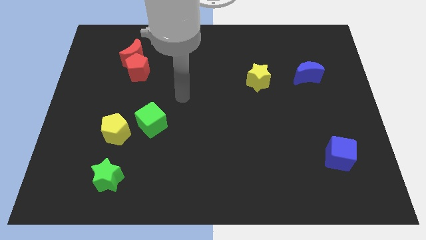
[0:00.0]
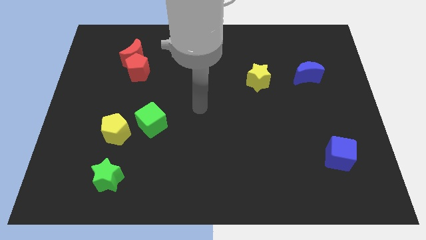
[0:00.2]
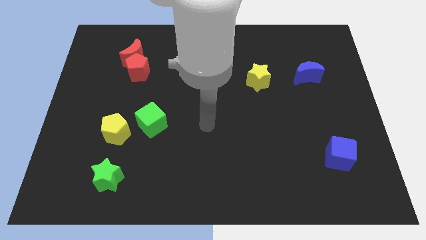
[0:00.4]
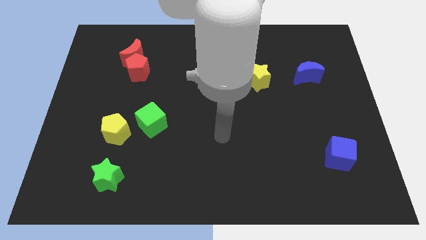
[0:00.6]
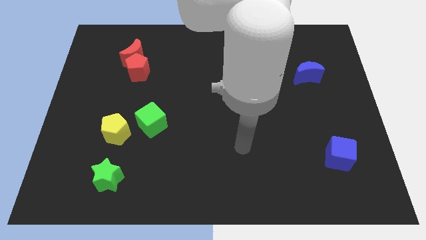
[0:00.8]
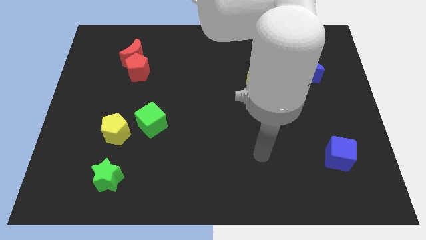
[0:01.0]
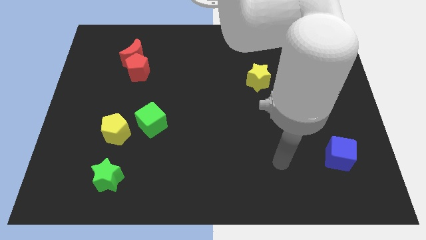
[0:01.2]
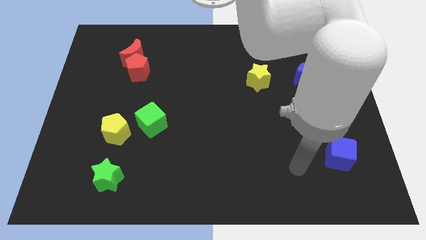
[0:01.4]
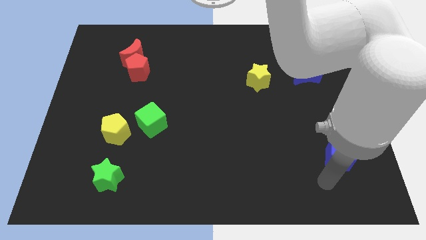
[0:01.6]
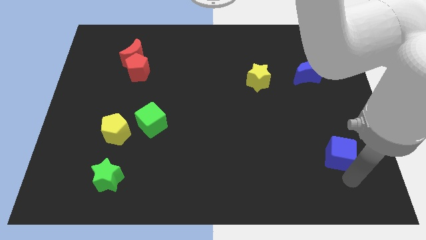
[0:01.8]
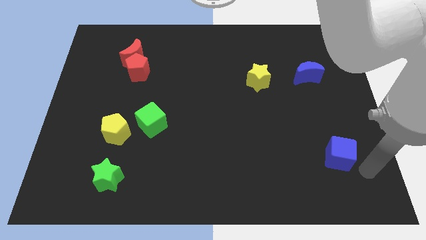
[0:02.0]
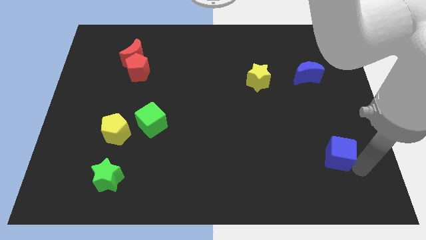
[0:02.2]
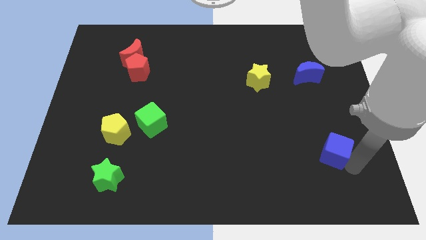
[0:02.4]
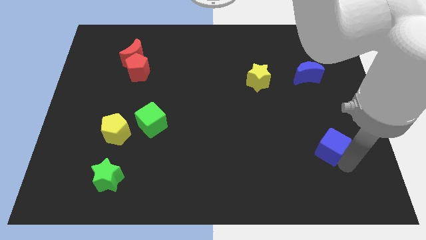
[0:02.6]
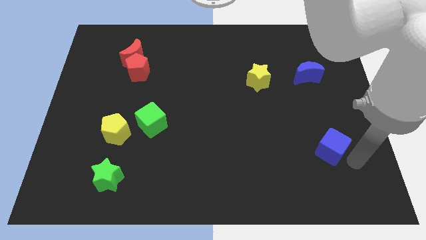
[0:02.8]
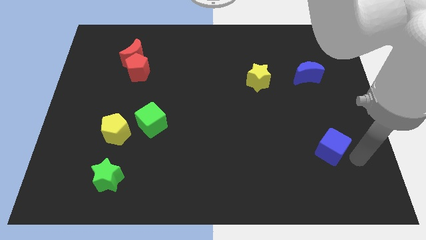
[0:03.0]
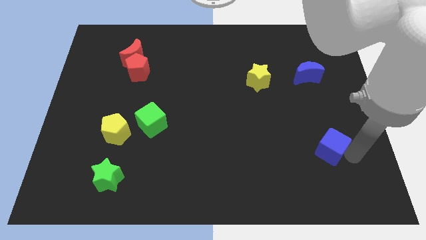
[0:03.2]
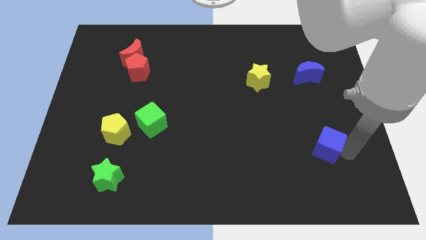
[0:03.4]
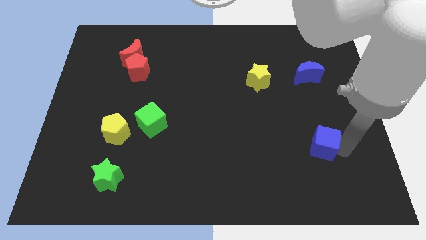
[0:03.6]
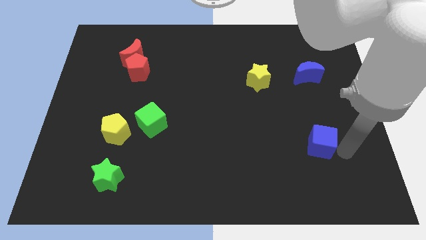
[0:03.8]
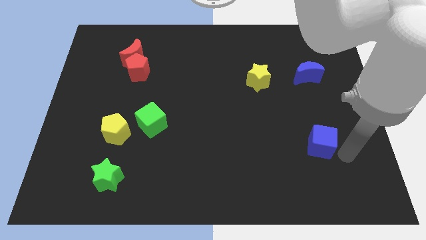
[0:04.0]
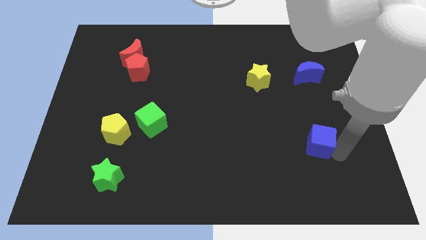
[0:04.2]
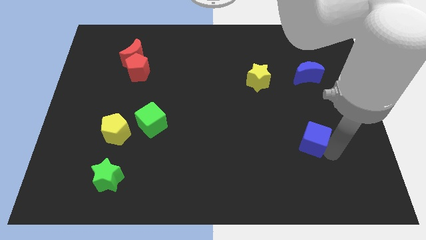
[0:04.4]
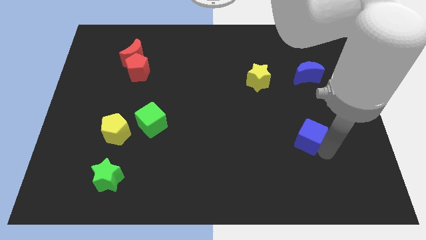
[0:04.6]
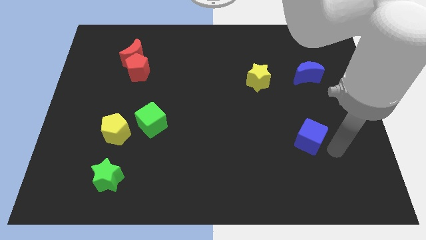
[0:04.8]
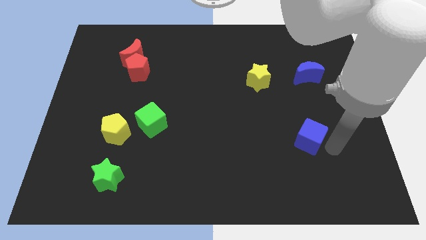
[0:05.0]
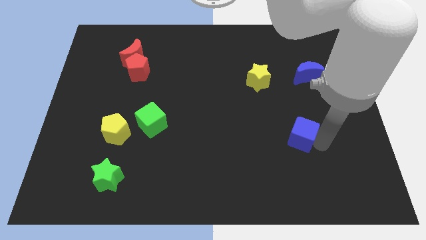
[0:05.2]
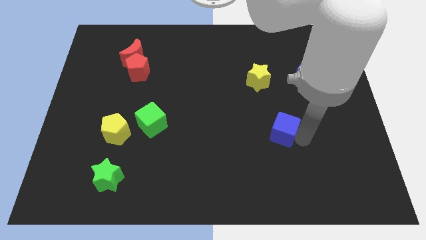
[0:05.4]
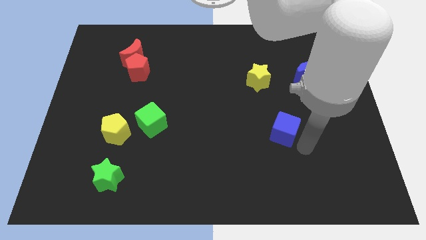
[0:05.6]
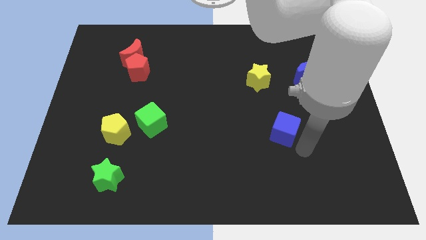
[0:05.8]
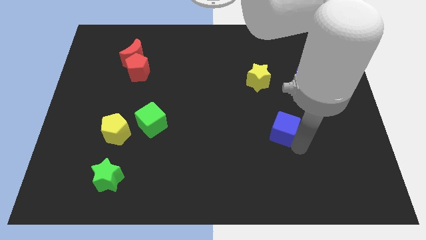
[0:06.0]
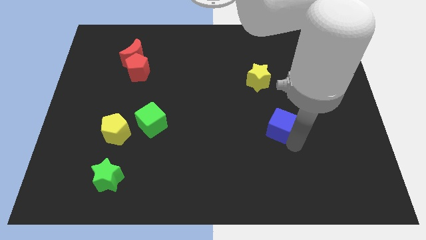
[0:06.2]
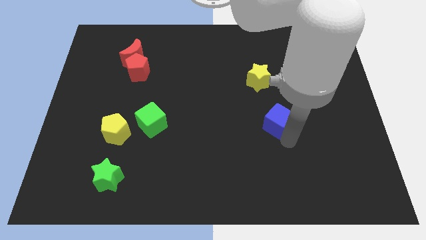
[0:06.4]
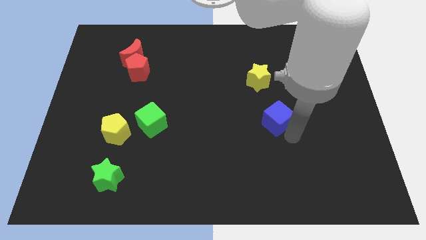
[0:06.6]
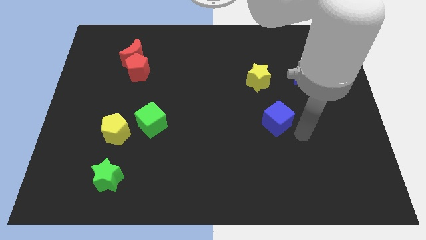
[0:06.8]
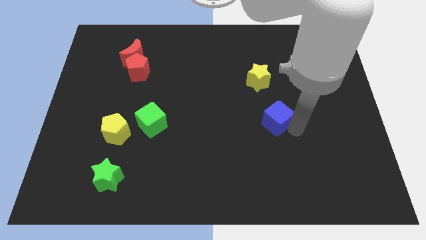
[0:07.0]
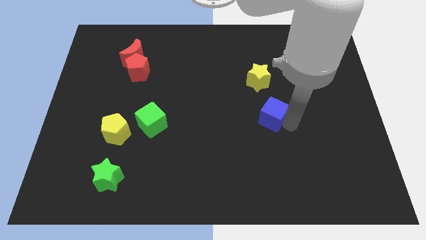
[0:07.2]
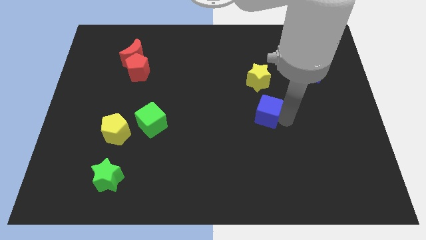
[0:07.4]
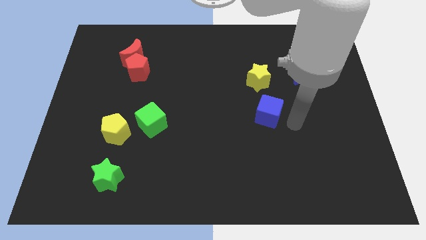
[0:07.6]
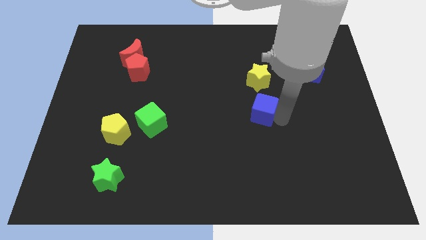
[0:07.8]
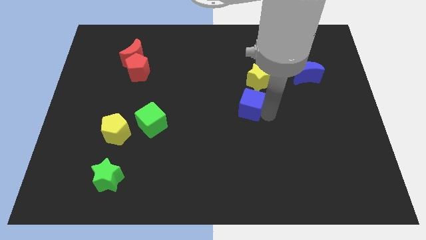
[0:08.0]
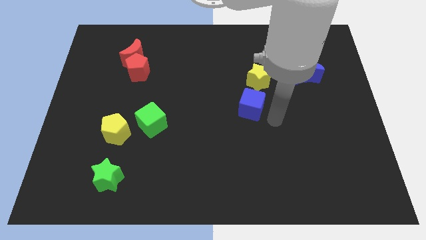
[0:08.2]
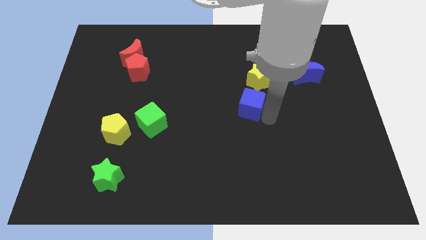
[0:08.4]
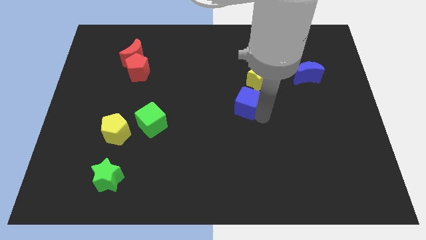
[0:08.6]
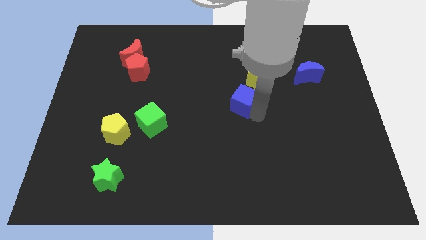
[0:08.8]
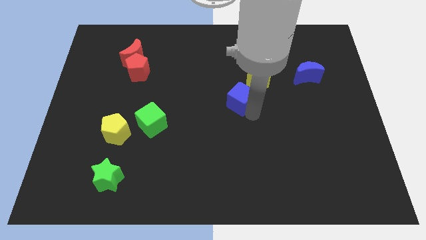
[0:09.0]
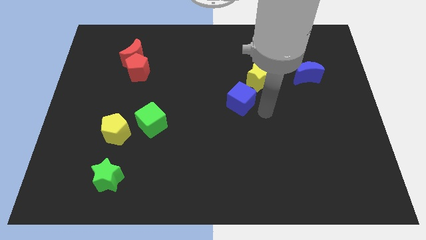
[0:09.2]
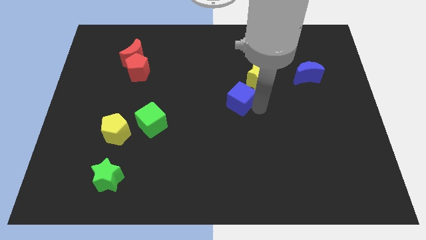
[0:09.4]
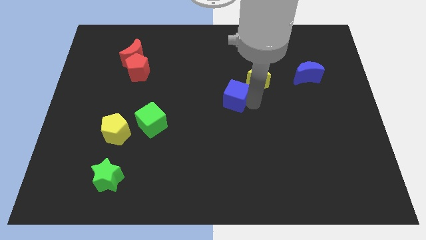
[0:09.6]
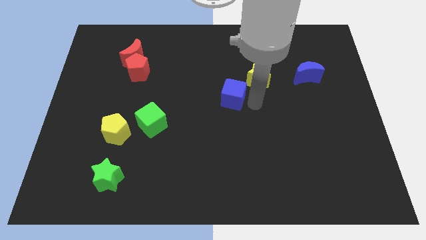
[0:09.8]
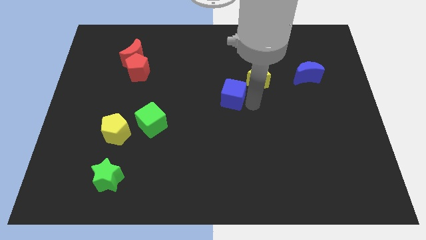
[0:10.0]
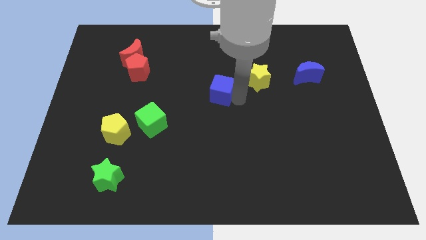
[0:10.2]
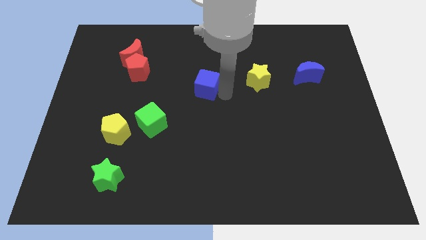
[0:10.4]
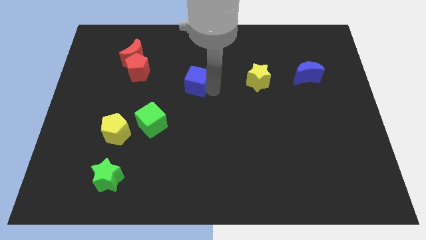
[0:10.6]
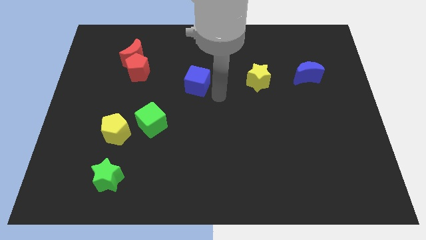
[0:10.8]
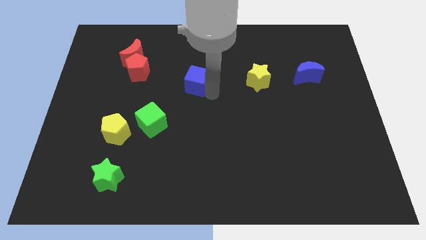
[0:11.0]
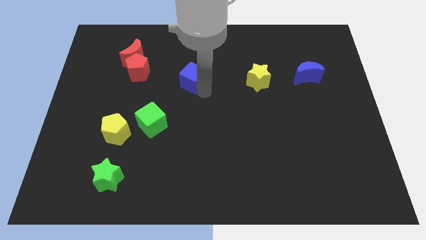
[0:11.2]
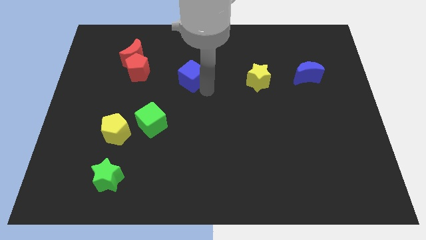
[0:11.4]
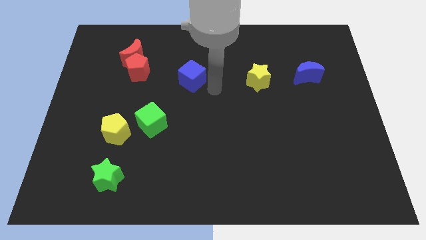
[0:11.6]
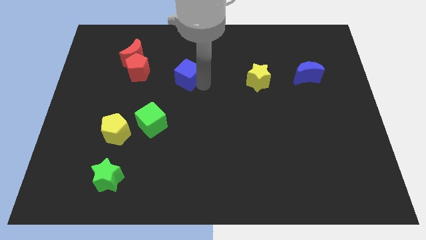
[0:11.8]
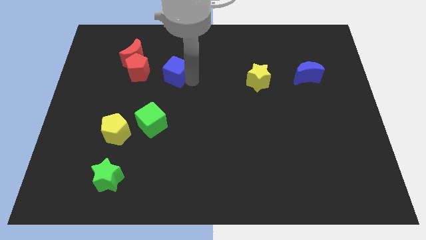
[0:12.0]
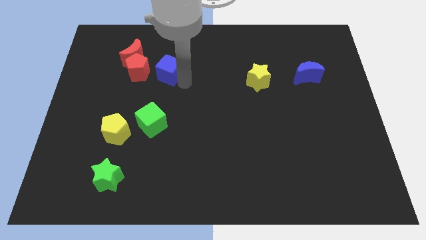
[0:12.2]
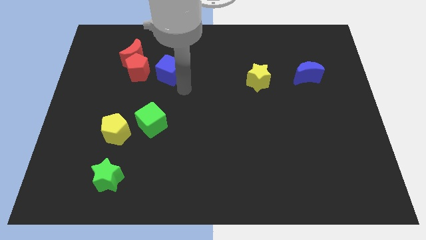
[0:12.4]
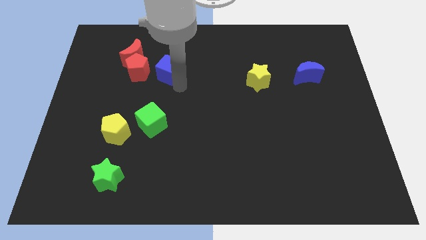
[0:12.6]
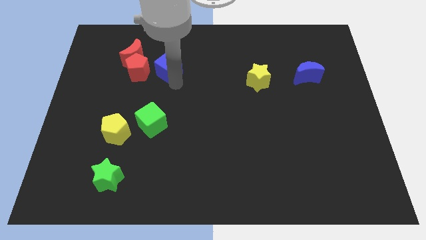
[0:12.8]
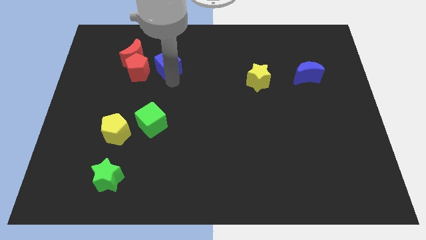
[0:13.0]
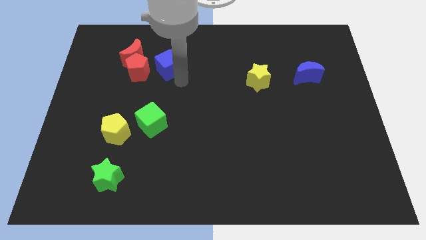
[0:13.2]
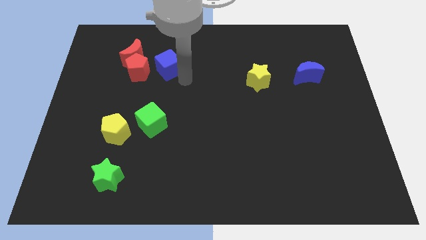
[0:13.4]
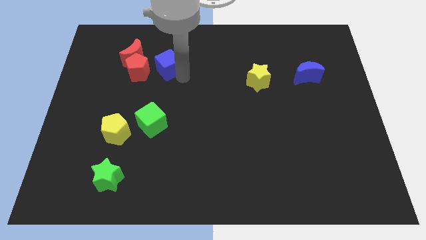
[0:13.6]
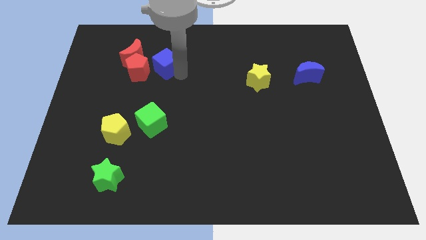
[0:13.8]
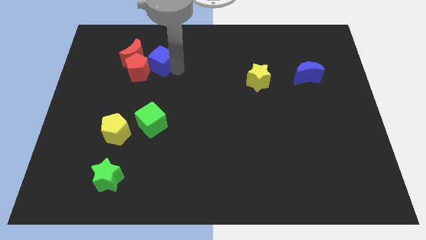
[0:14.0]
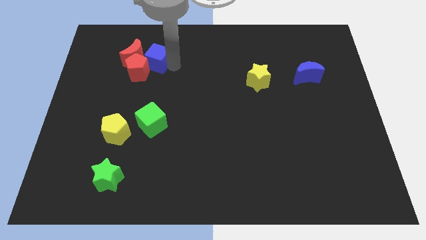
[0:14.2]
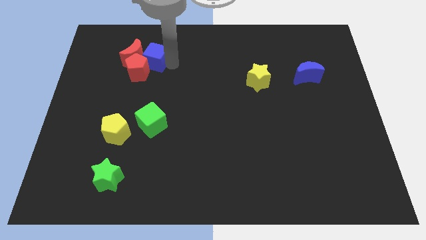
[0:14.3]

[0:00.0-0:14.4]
move the blue cube next to the red moon

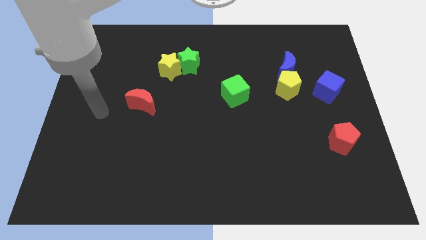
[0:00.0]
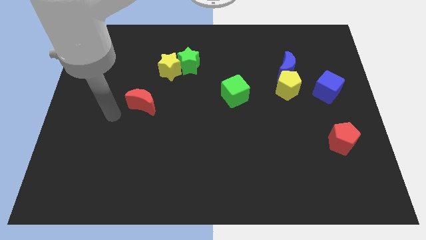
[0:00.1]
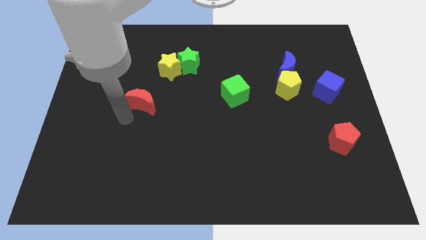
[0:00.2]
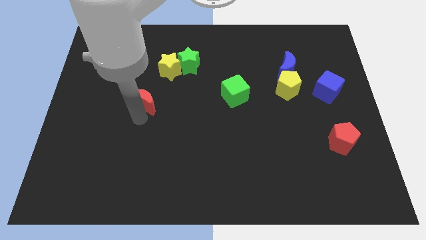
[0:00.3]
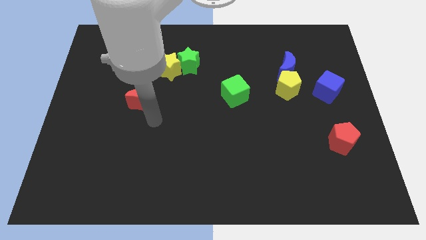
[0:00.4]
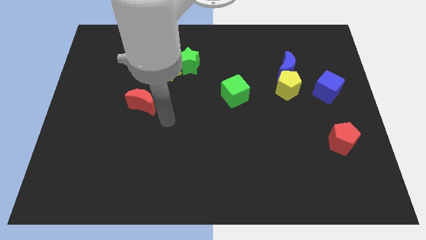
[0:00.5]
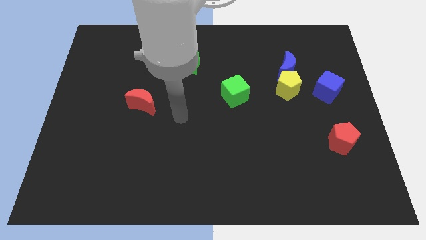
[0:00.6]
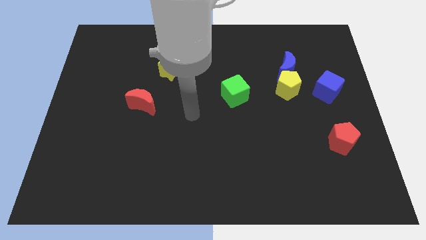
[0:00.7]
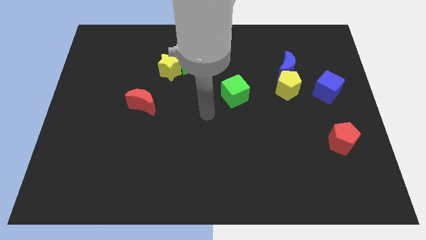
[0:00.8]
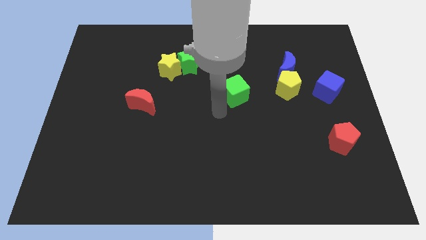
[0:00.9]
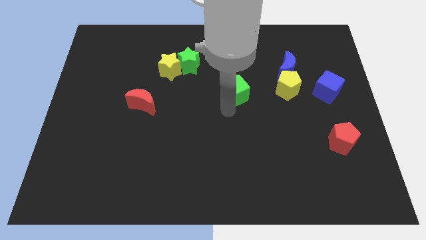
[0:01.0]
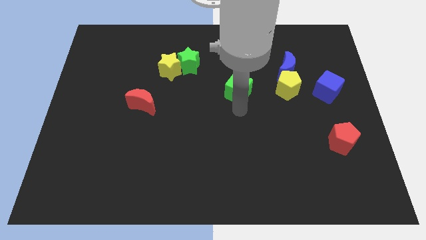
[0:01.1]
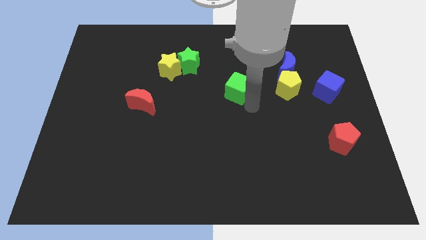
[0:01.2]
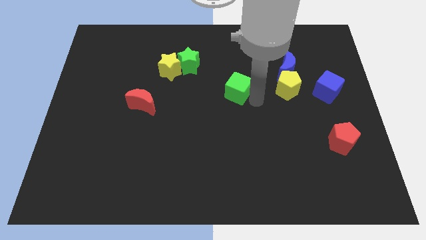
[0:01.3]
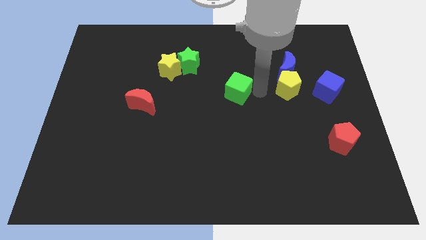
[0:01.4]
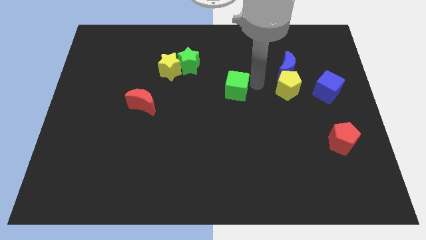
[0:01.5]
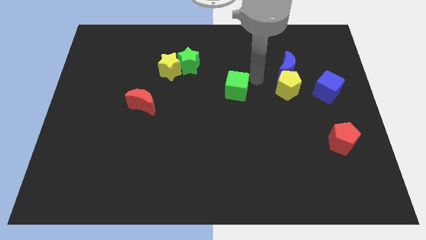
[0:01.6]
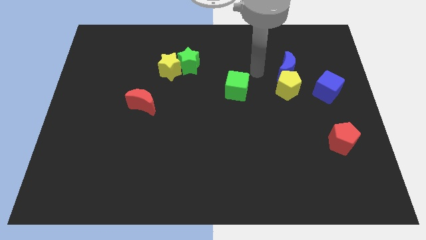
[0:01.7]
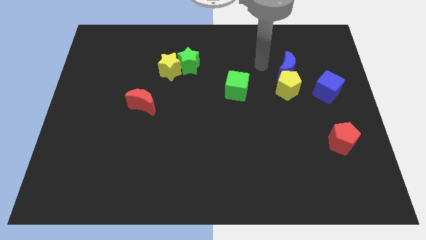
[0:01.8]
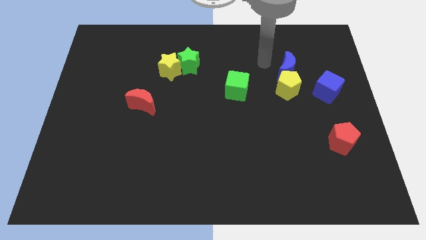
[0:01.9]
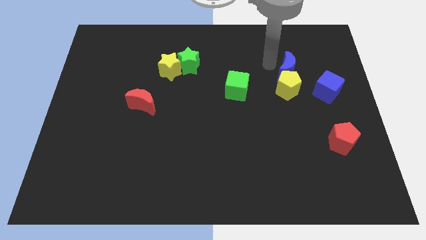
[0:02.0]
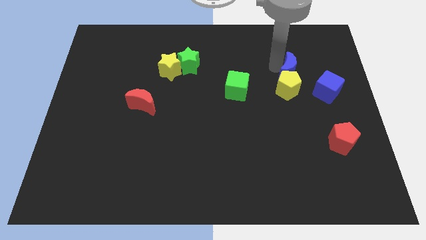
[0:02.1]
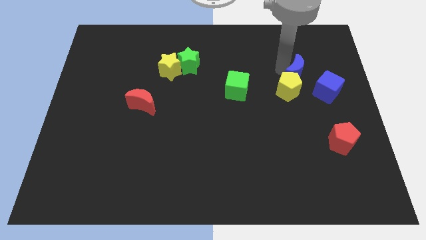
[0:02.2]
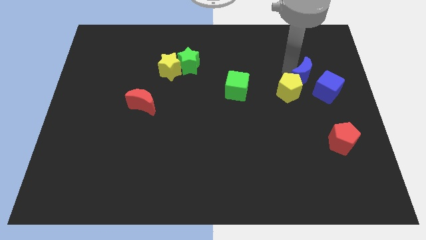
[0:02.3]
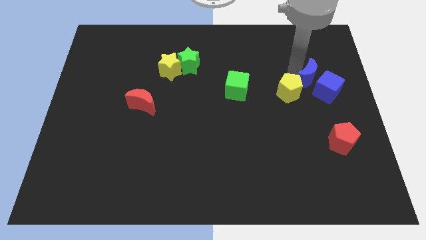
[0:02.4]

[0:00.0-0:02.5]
slide the blue moon close to the blue cube
